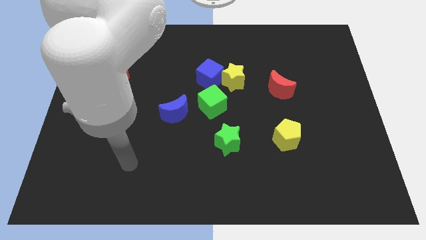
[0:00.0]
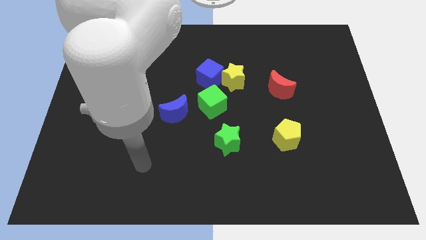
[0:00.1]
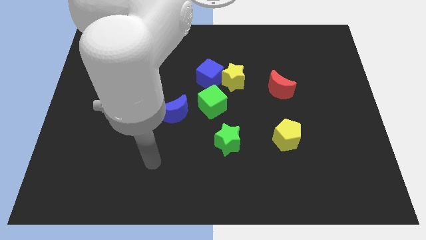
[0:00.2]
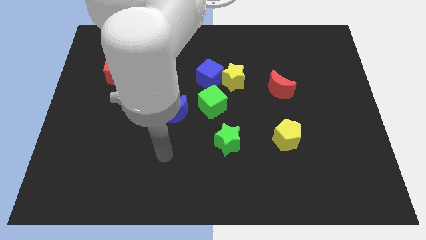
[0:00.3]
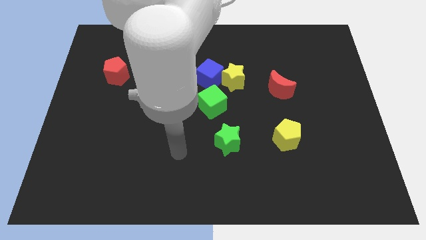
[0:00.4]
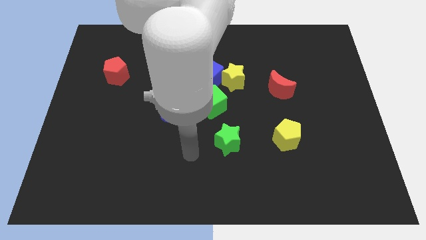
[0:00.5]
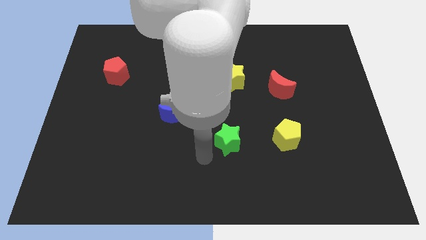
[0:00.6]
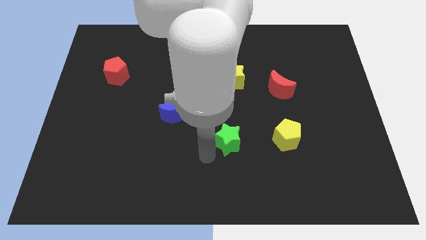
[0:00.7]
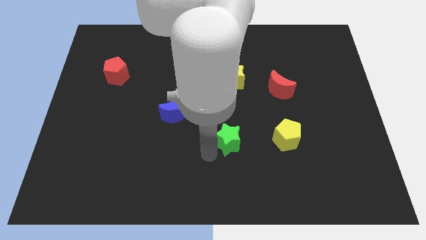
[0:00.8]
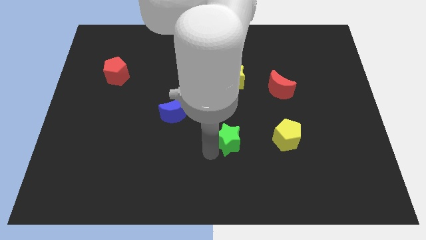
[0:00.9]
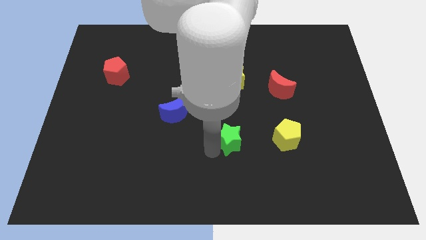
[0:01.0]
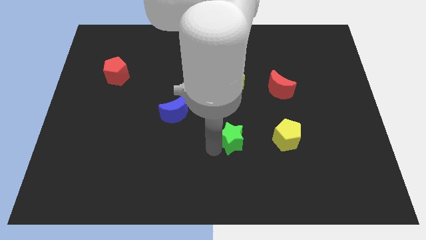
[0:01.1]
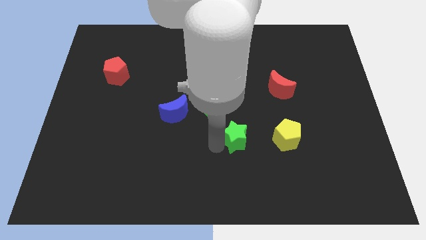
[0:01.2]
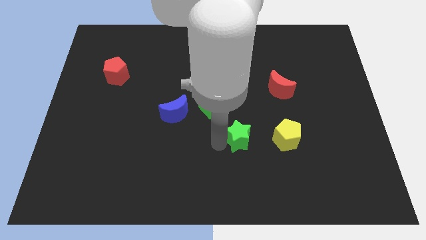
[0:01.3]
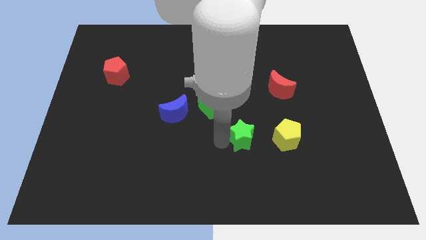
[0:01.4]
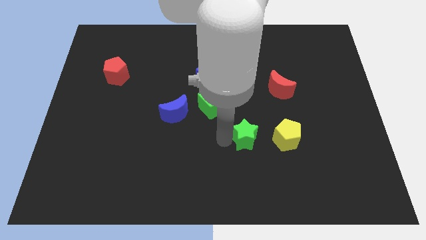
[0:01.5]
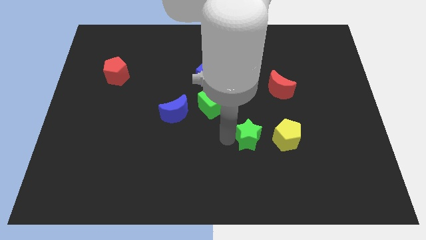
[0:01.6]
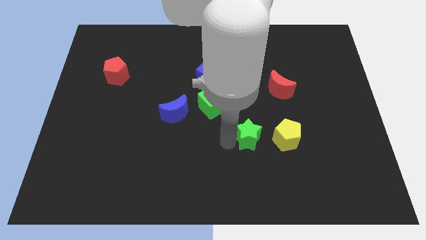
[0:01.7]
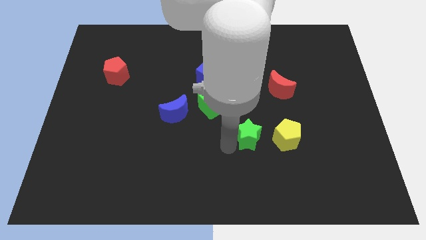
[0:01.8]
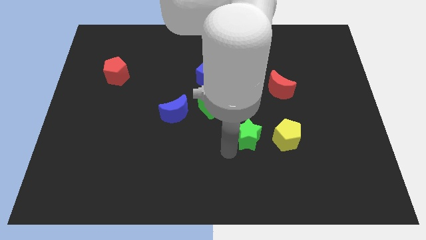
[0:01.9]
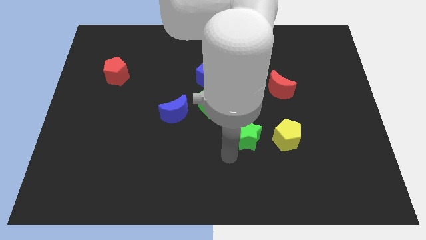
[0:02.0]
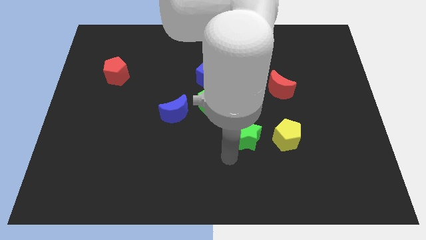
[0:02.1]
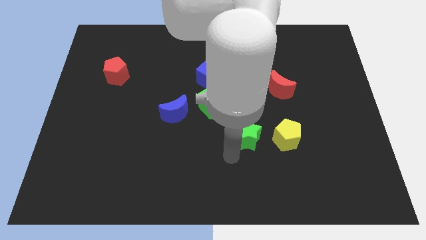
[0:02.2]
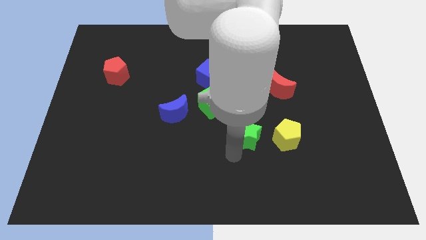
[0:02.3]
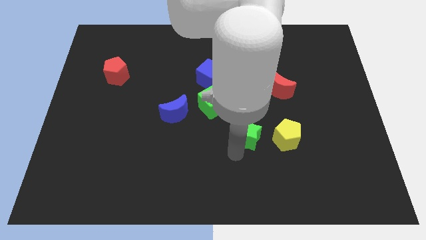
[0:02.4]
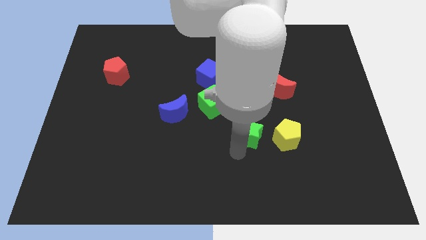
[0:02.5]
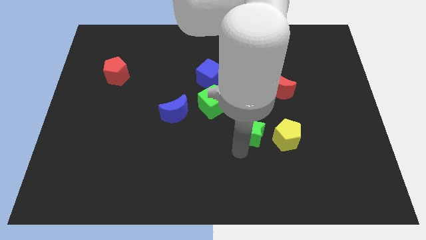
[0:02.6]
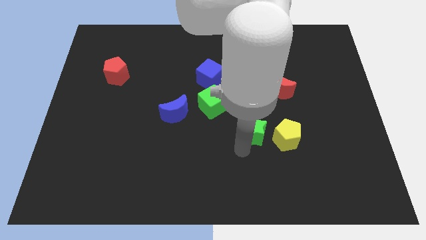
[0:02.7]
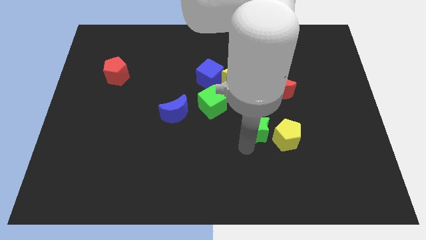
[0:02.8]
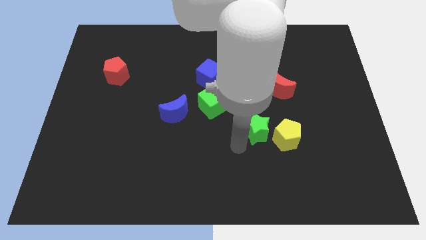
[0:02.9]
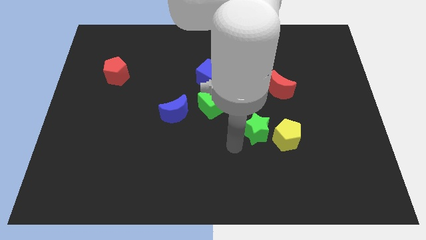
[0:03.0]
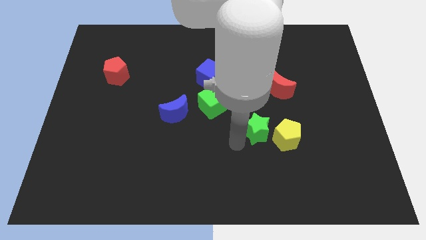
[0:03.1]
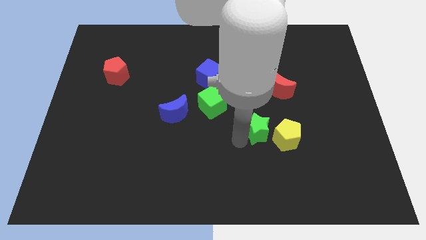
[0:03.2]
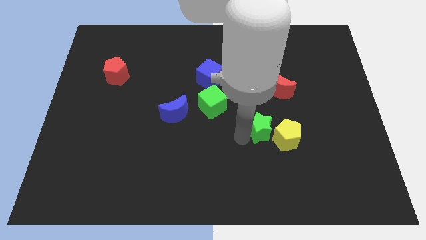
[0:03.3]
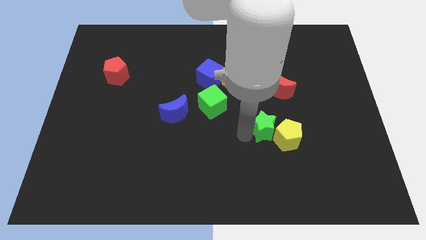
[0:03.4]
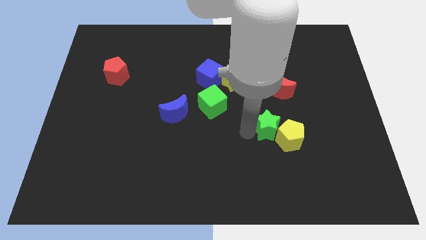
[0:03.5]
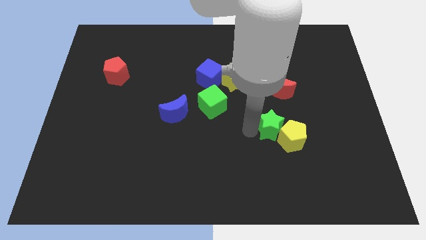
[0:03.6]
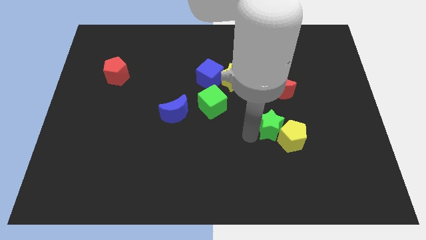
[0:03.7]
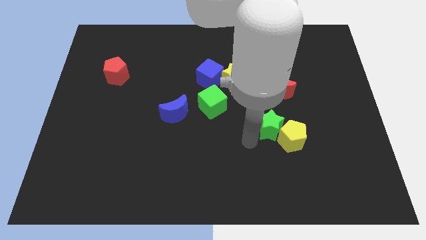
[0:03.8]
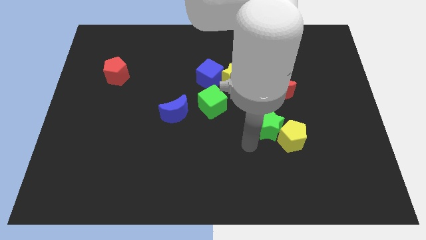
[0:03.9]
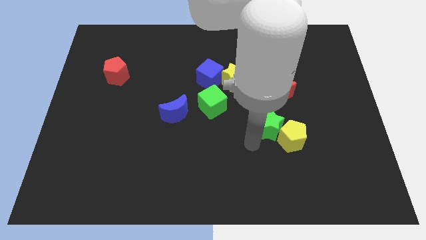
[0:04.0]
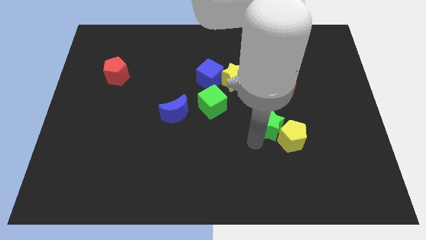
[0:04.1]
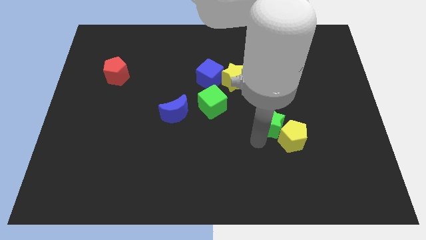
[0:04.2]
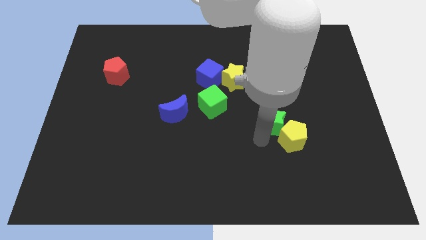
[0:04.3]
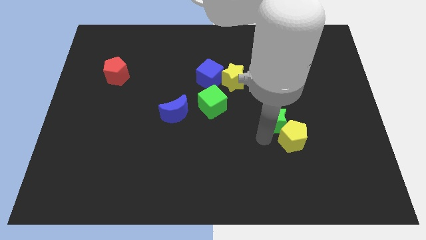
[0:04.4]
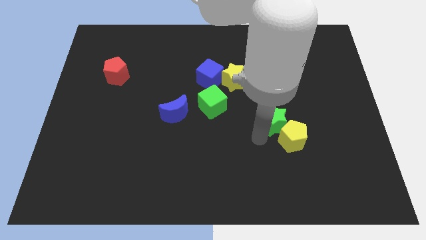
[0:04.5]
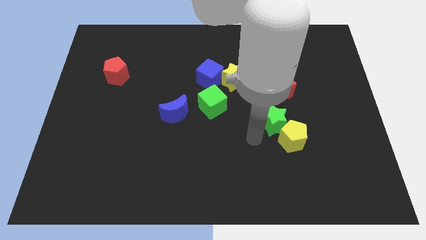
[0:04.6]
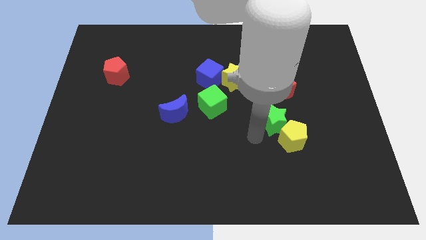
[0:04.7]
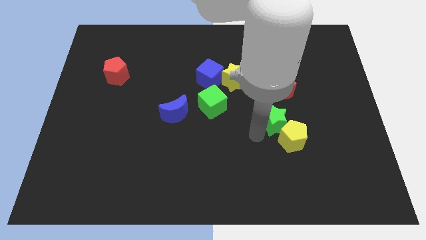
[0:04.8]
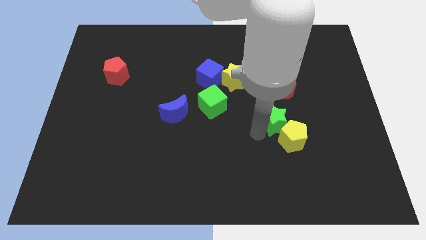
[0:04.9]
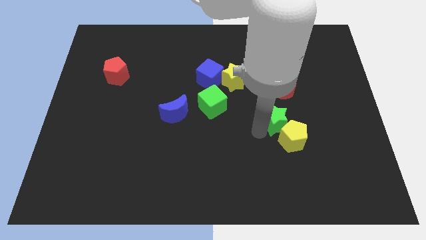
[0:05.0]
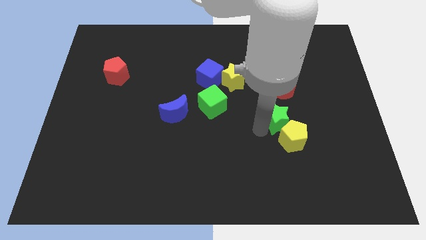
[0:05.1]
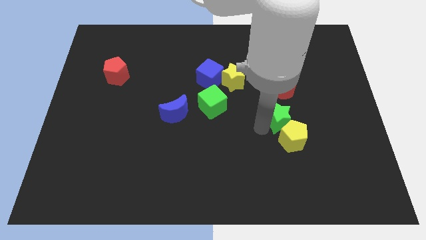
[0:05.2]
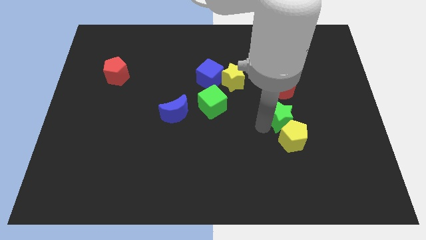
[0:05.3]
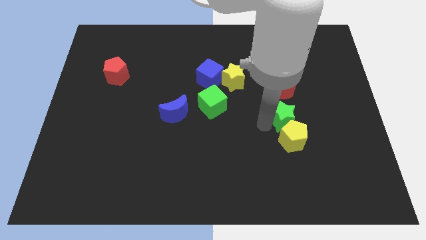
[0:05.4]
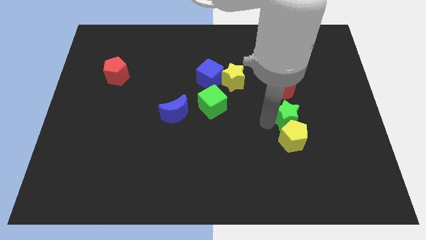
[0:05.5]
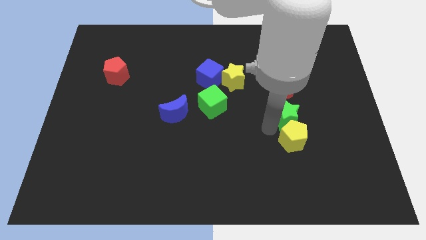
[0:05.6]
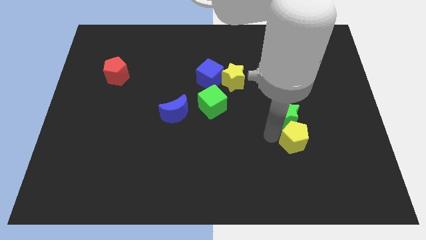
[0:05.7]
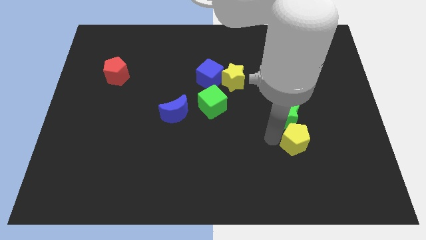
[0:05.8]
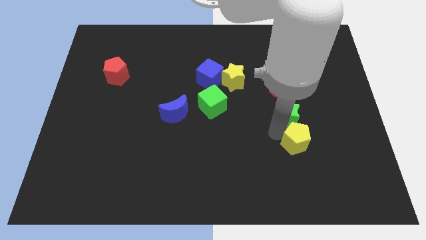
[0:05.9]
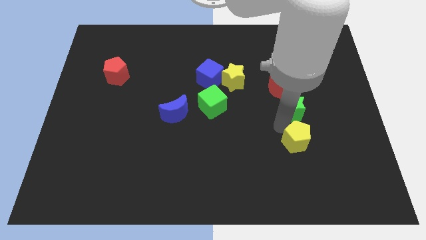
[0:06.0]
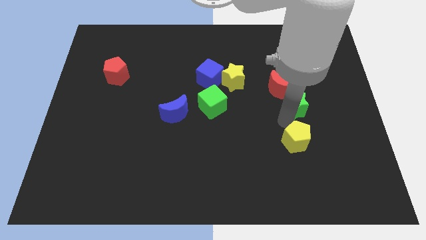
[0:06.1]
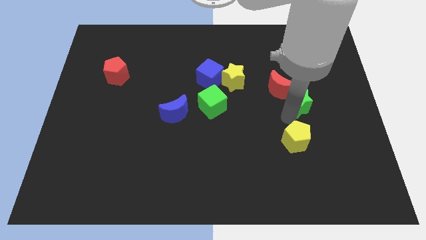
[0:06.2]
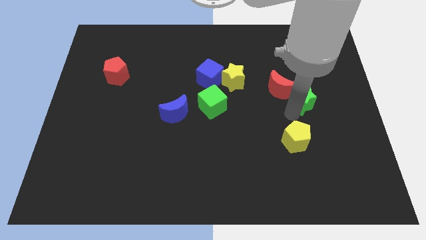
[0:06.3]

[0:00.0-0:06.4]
push the green star upwards and right

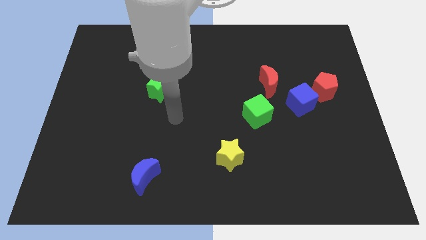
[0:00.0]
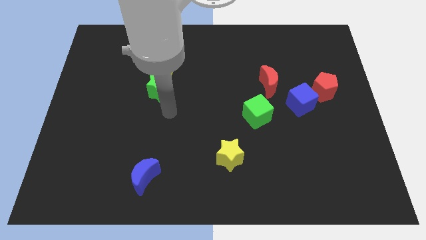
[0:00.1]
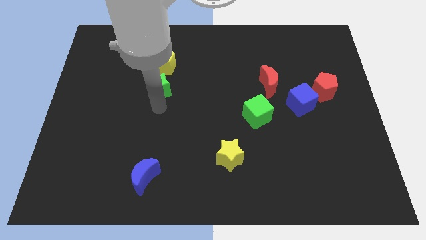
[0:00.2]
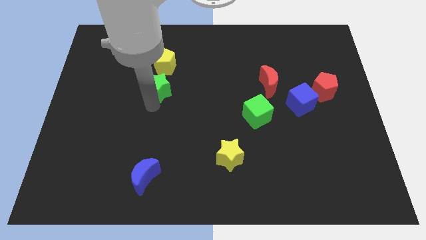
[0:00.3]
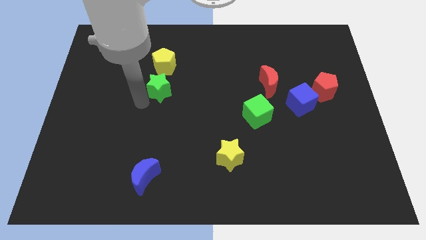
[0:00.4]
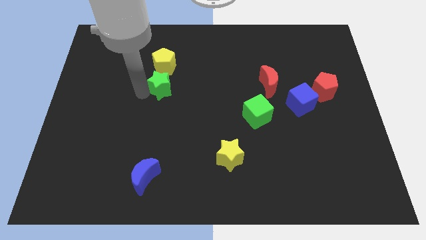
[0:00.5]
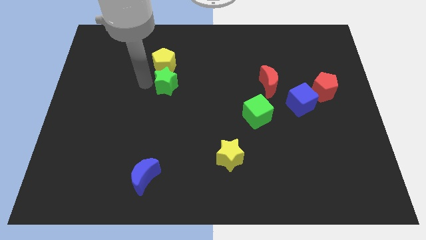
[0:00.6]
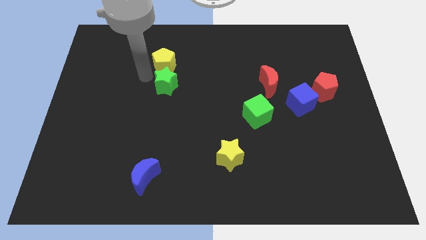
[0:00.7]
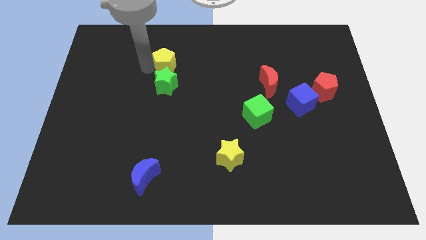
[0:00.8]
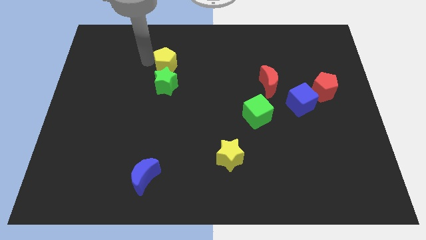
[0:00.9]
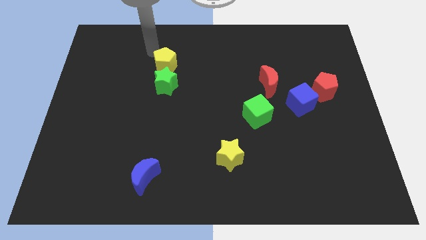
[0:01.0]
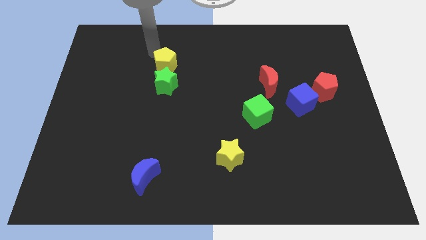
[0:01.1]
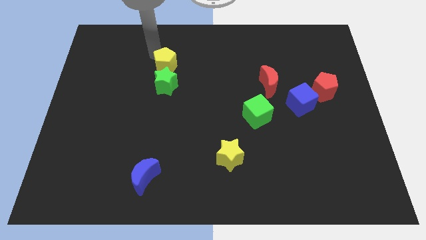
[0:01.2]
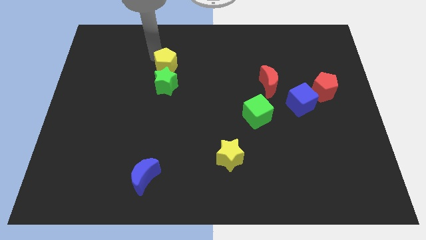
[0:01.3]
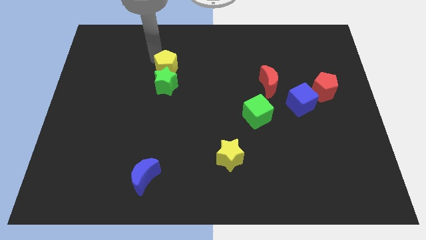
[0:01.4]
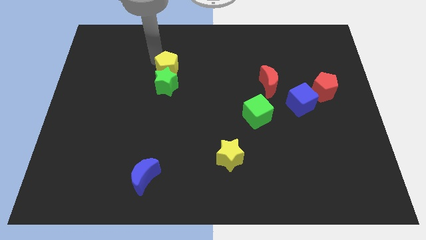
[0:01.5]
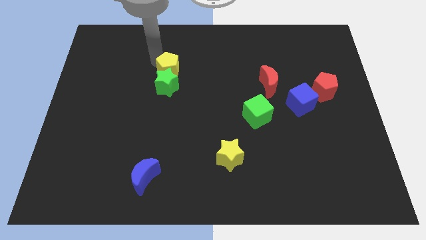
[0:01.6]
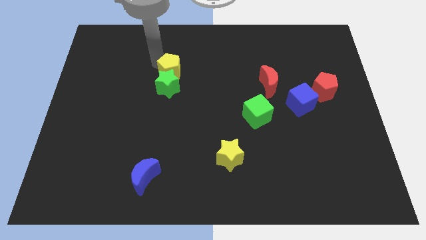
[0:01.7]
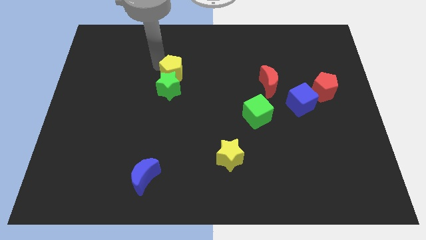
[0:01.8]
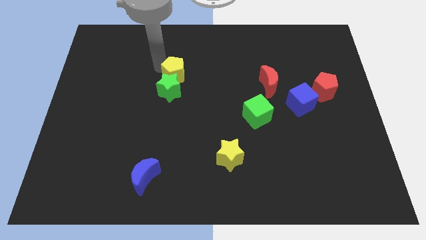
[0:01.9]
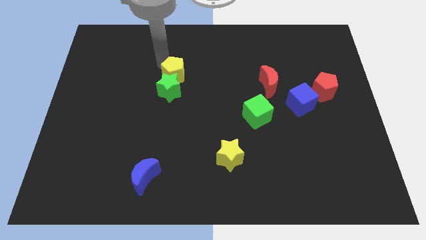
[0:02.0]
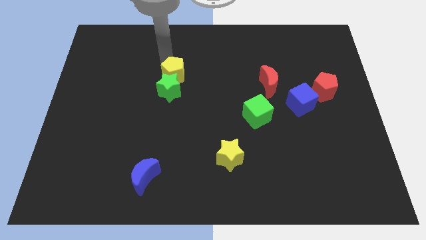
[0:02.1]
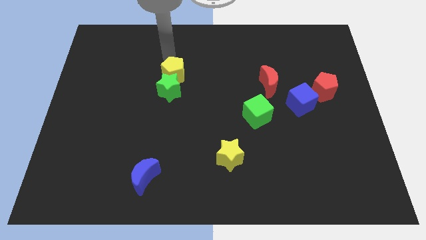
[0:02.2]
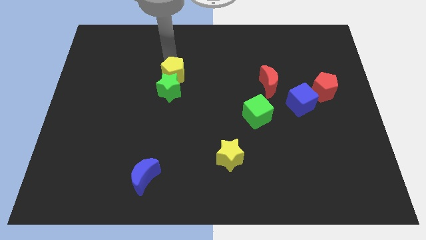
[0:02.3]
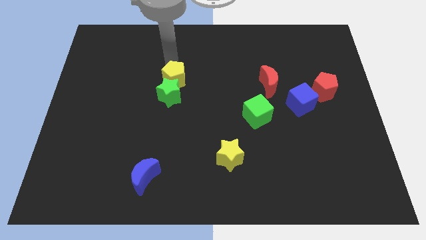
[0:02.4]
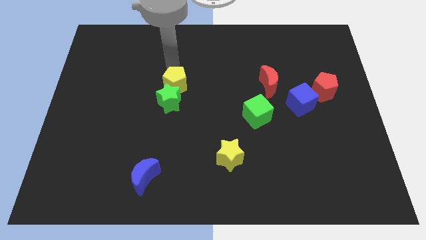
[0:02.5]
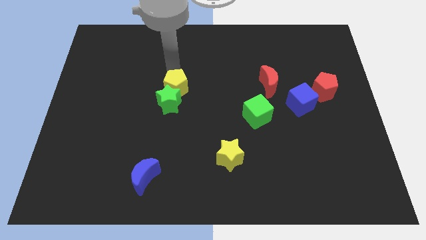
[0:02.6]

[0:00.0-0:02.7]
slightly push the yellow pentagon downwards
